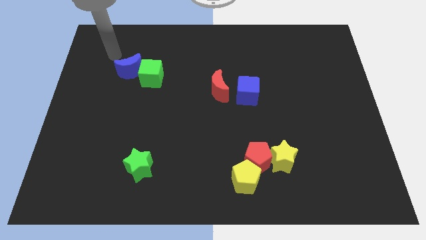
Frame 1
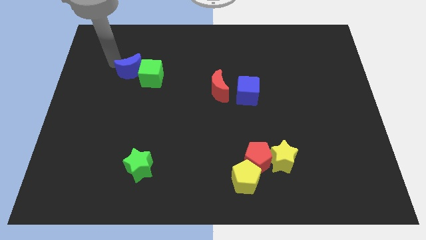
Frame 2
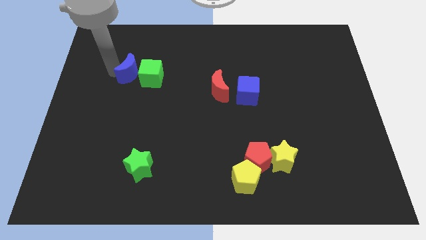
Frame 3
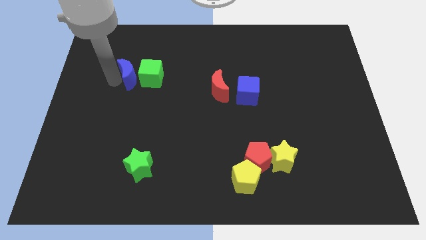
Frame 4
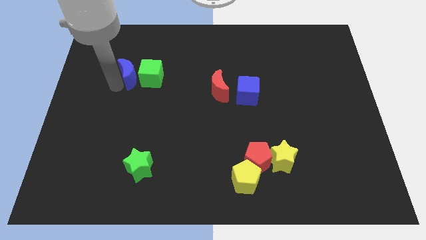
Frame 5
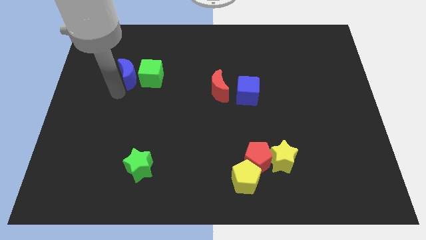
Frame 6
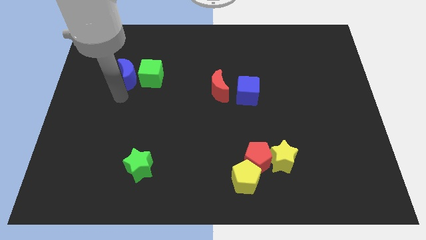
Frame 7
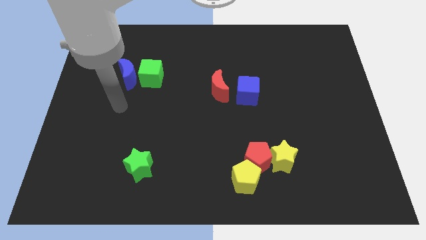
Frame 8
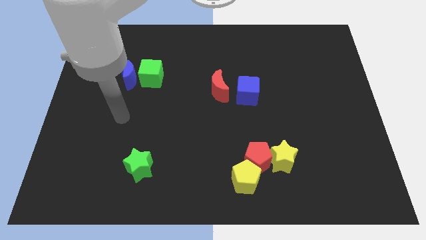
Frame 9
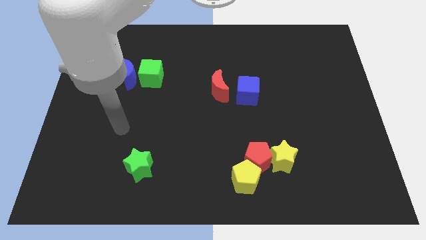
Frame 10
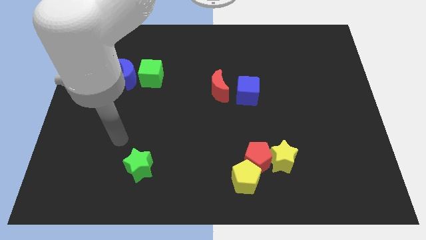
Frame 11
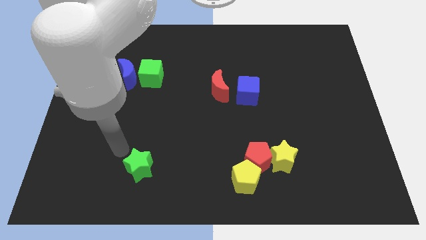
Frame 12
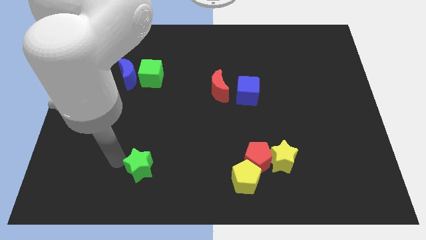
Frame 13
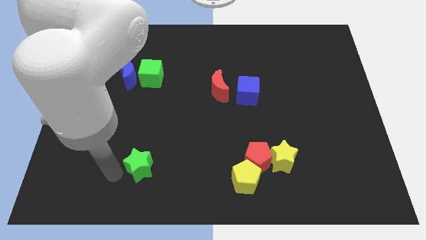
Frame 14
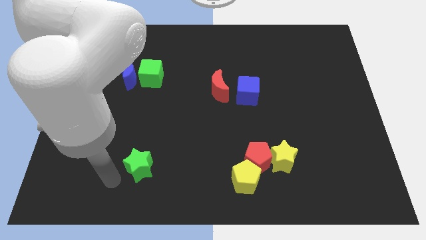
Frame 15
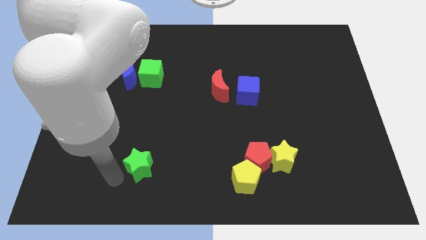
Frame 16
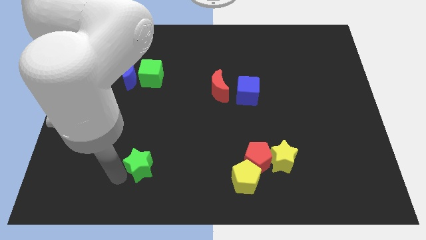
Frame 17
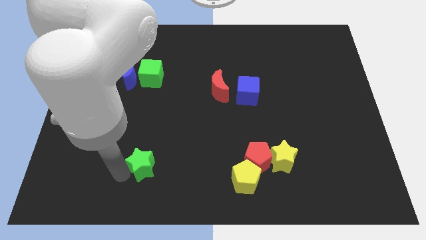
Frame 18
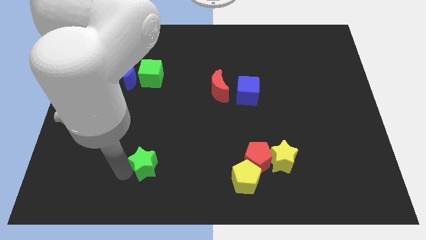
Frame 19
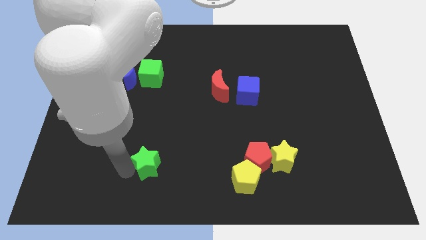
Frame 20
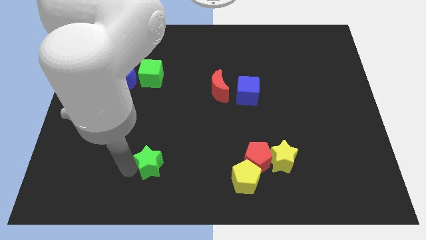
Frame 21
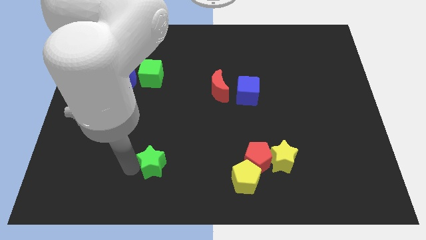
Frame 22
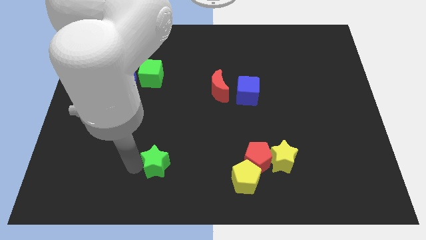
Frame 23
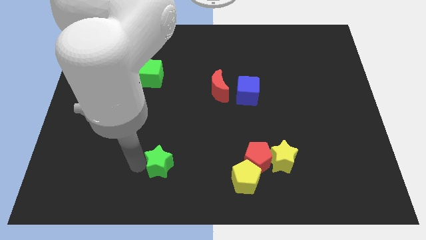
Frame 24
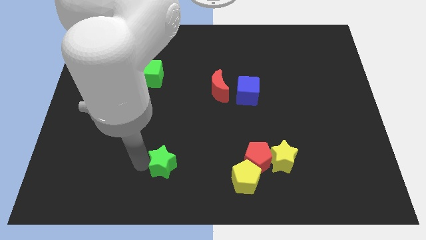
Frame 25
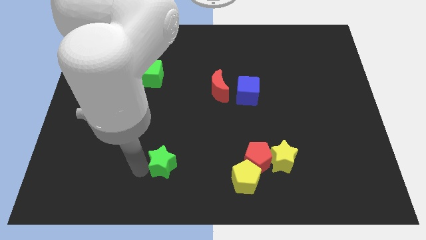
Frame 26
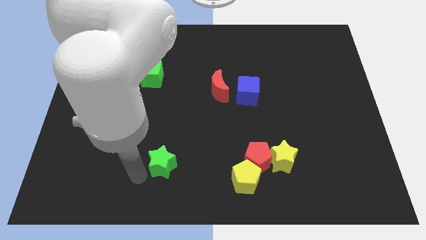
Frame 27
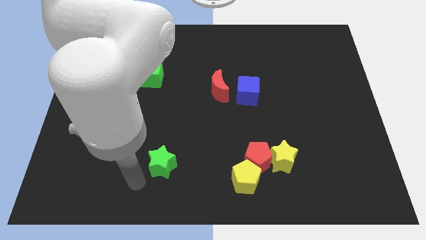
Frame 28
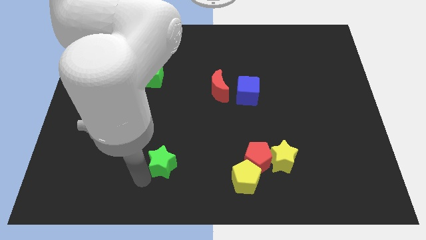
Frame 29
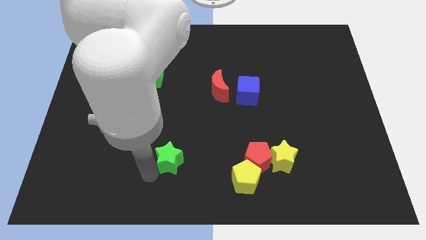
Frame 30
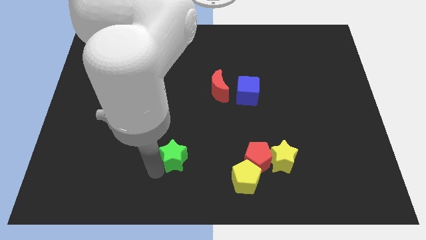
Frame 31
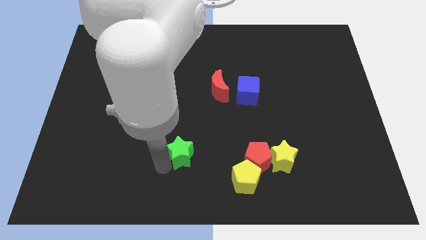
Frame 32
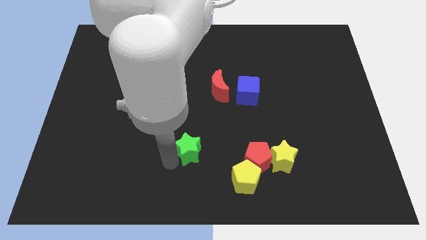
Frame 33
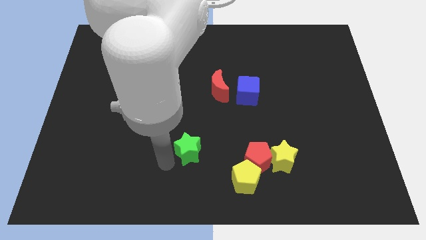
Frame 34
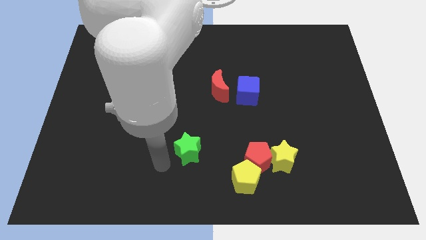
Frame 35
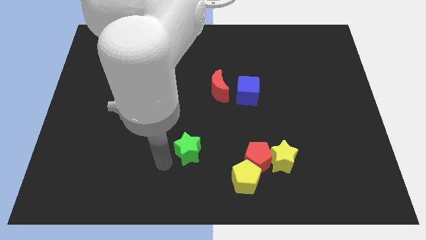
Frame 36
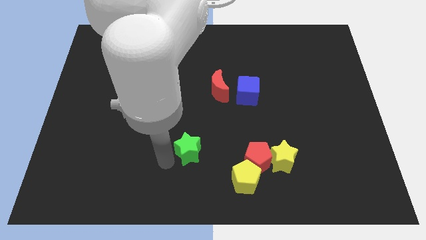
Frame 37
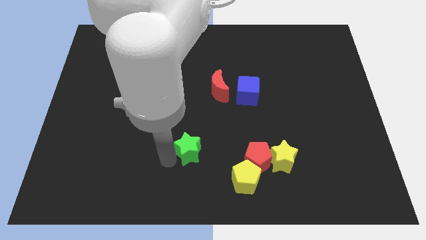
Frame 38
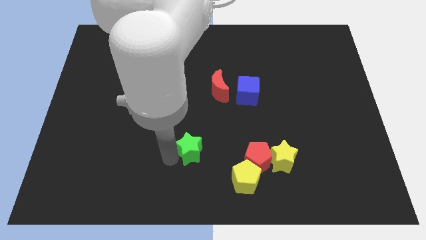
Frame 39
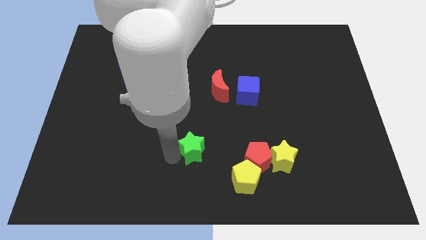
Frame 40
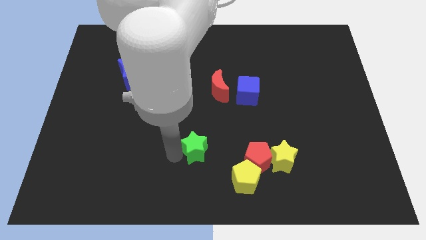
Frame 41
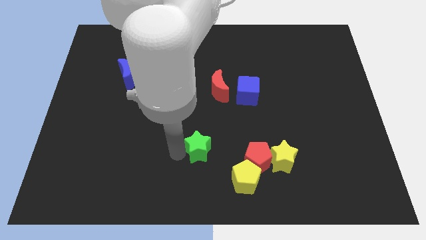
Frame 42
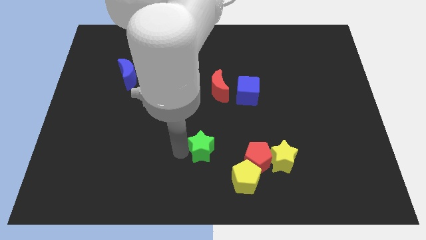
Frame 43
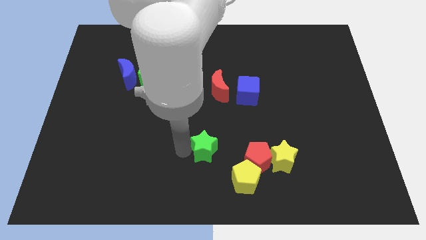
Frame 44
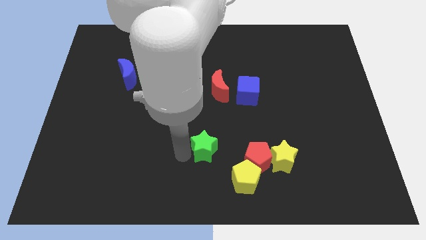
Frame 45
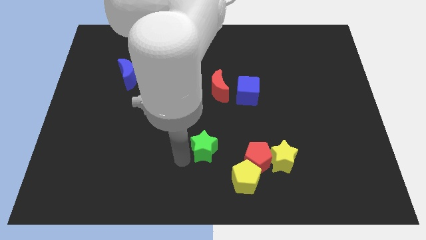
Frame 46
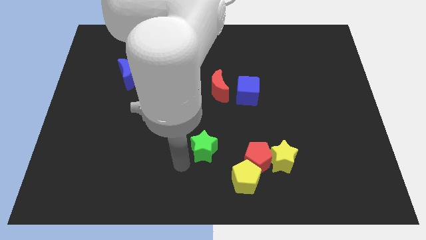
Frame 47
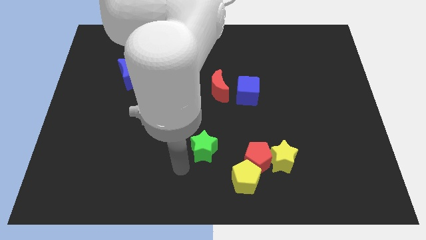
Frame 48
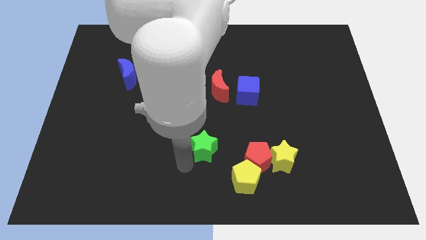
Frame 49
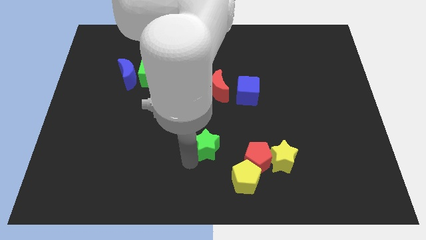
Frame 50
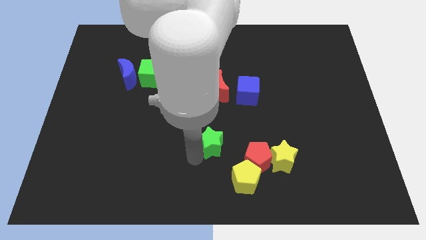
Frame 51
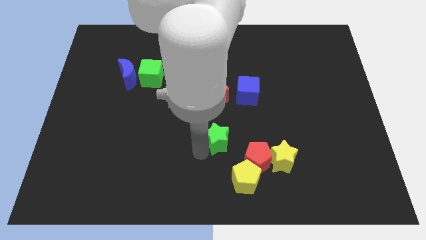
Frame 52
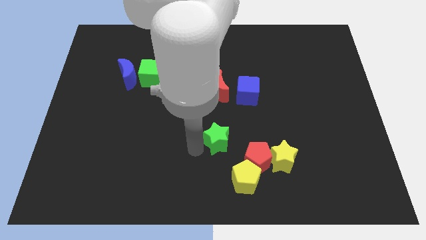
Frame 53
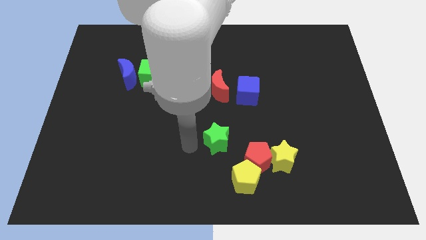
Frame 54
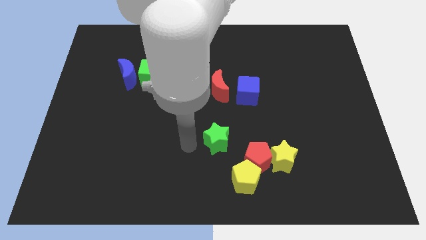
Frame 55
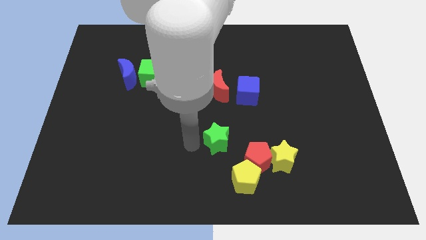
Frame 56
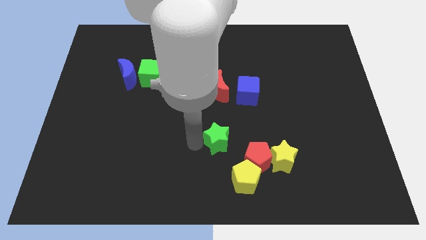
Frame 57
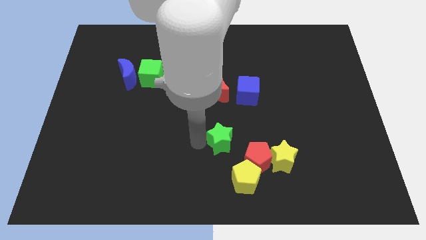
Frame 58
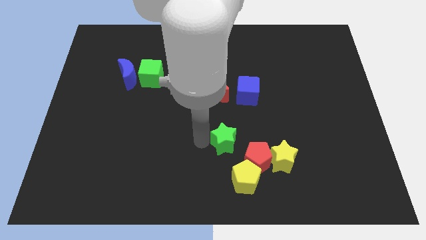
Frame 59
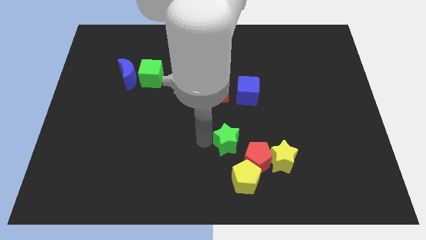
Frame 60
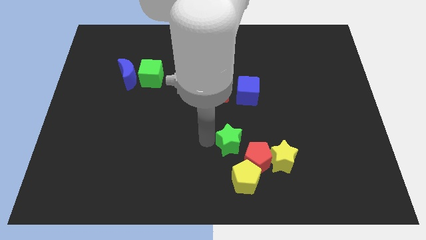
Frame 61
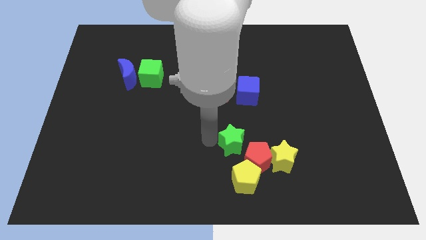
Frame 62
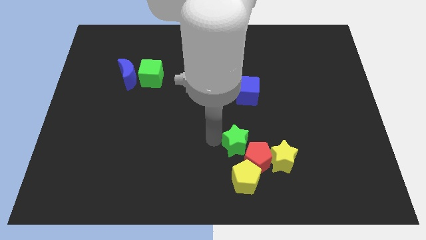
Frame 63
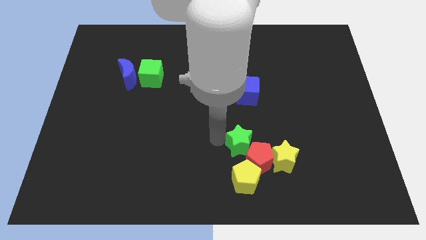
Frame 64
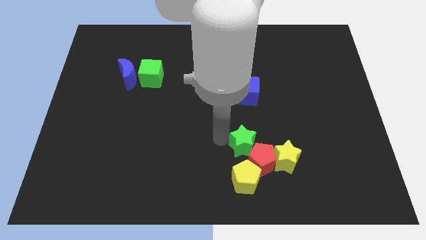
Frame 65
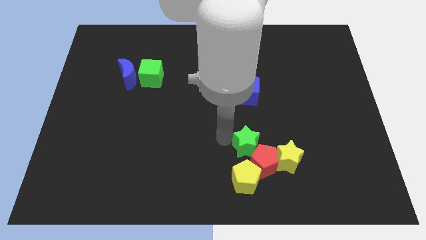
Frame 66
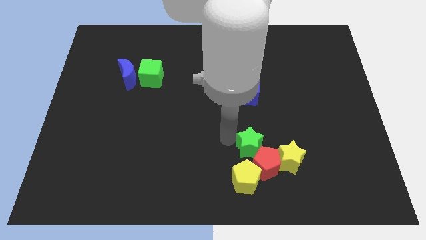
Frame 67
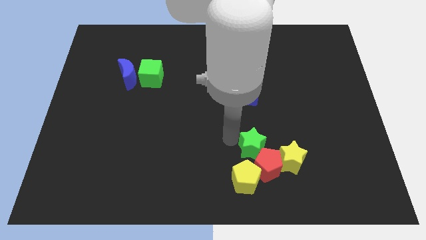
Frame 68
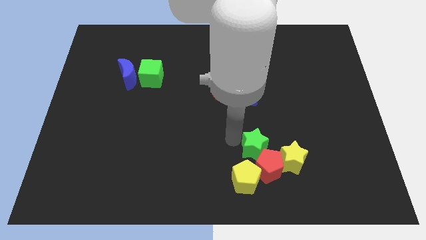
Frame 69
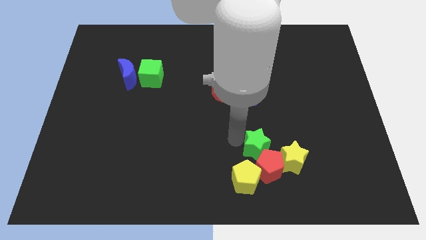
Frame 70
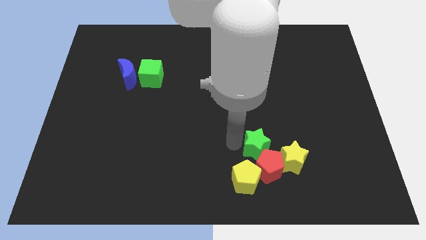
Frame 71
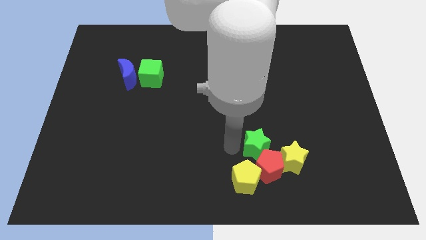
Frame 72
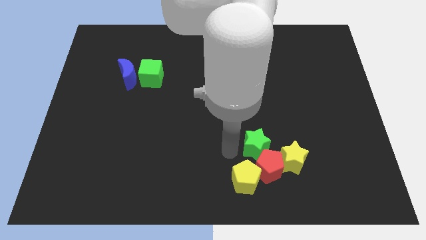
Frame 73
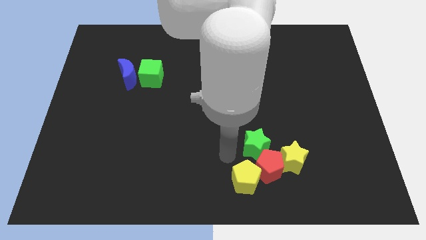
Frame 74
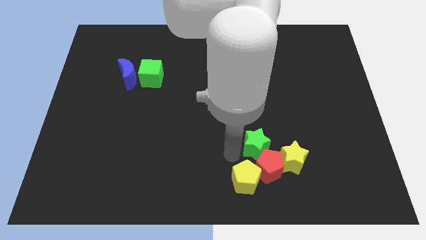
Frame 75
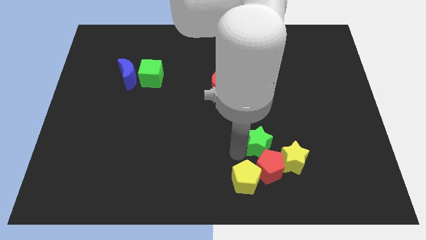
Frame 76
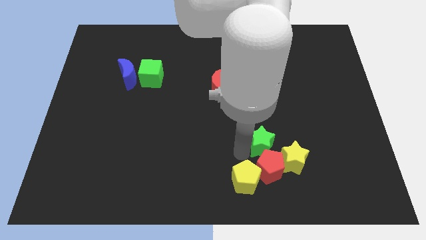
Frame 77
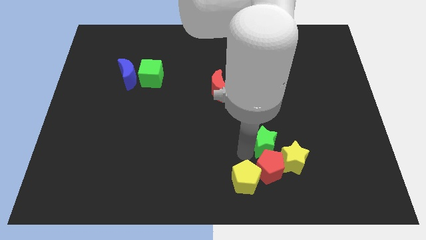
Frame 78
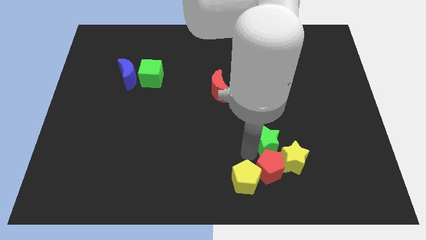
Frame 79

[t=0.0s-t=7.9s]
slide the green star to the yellow star
